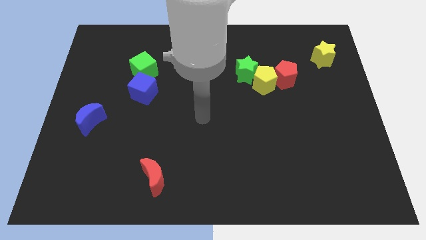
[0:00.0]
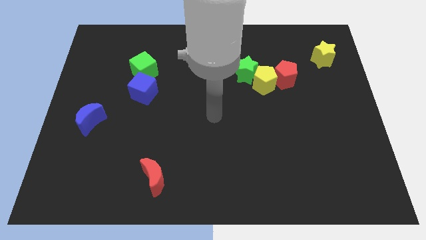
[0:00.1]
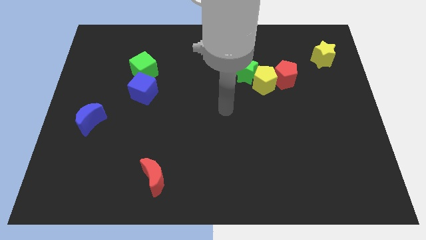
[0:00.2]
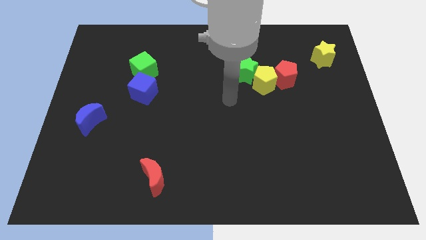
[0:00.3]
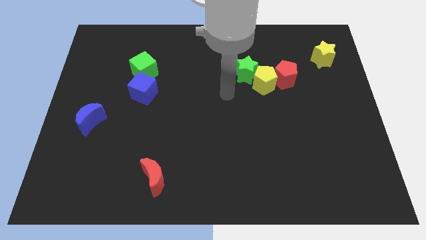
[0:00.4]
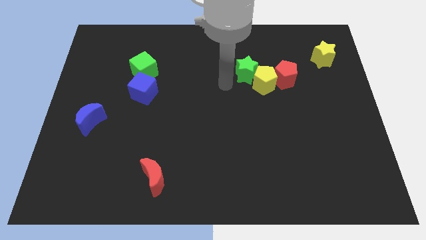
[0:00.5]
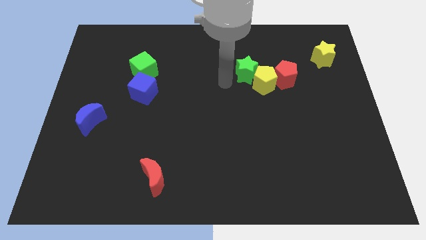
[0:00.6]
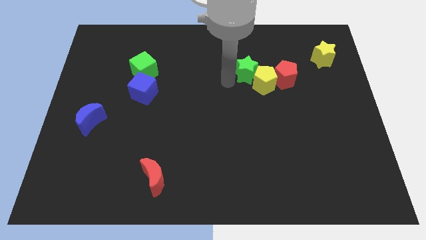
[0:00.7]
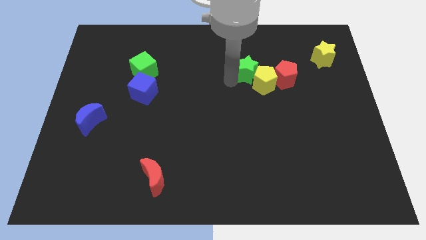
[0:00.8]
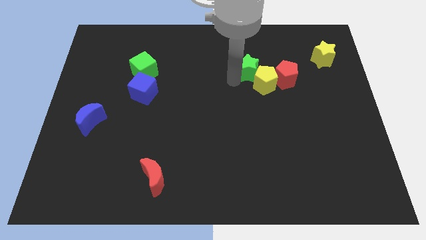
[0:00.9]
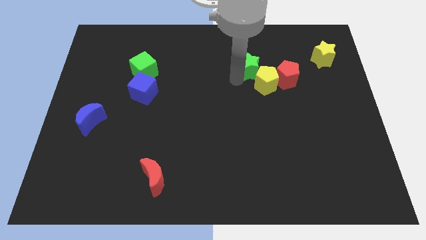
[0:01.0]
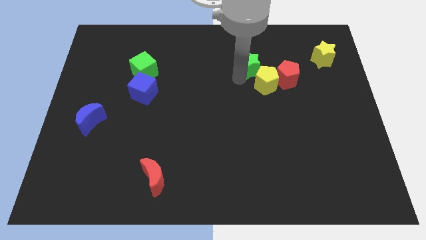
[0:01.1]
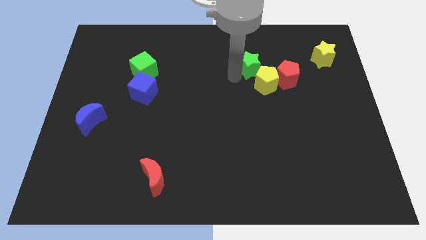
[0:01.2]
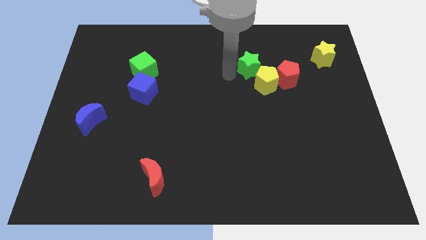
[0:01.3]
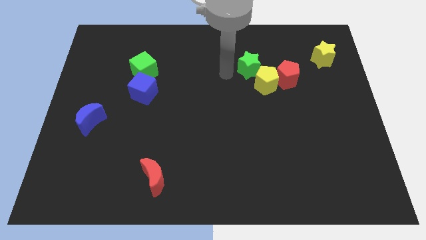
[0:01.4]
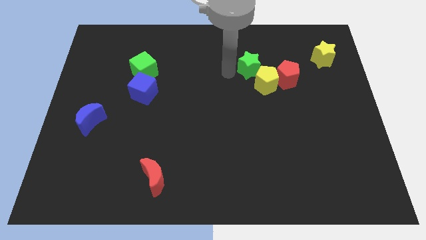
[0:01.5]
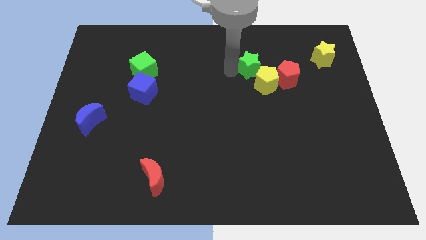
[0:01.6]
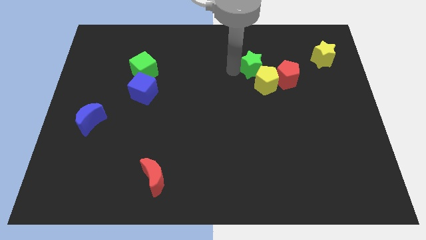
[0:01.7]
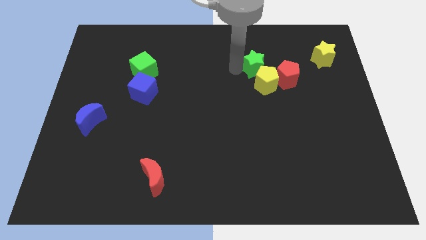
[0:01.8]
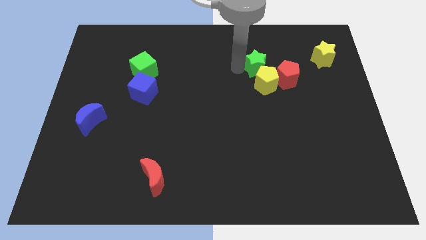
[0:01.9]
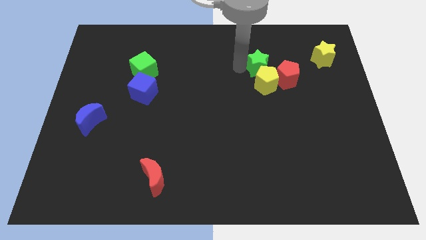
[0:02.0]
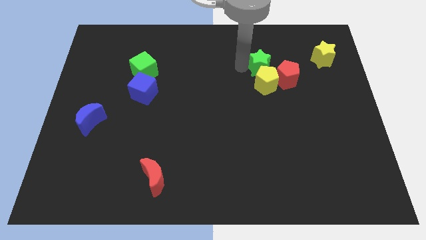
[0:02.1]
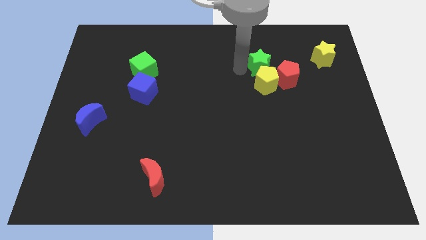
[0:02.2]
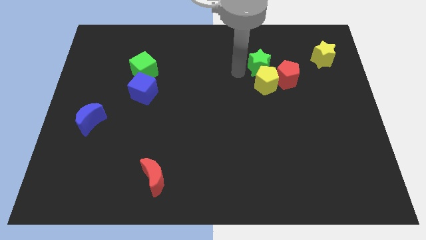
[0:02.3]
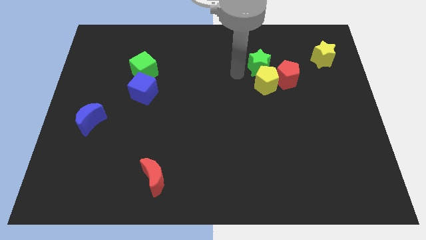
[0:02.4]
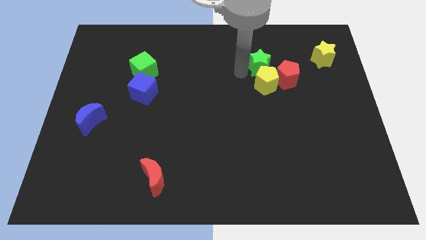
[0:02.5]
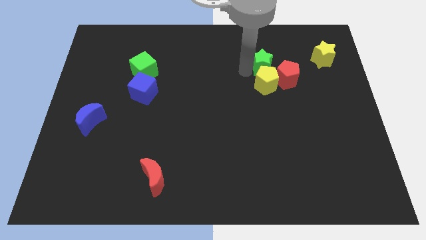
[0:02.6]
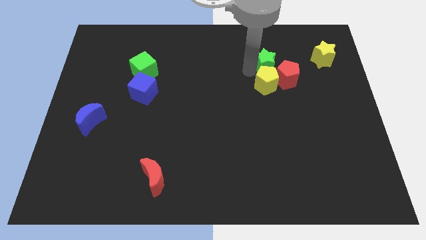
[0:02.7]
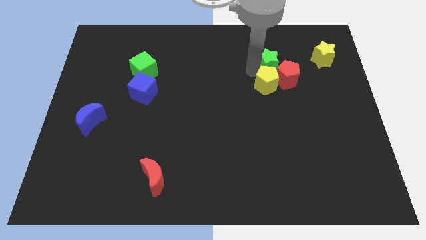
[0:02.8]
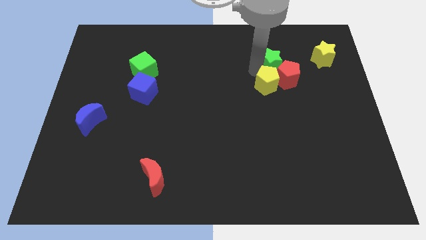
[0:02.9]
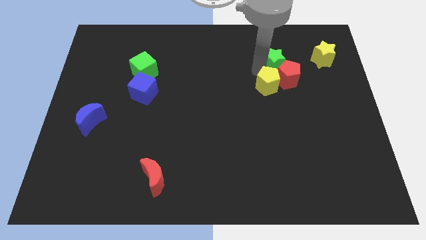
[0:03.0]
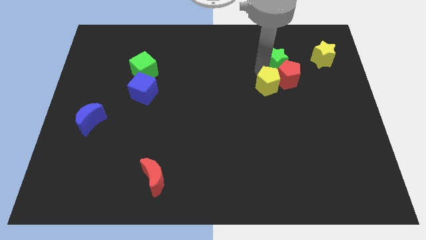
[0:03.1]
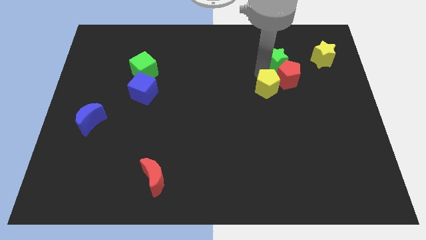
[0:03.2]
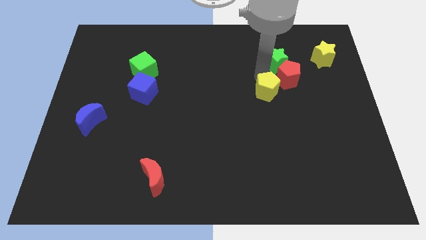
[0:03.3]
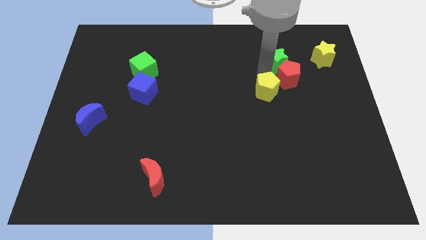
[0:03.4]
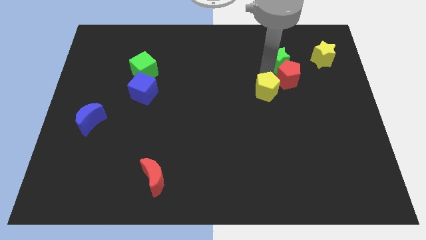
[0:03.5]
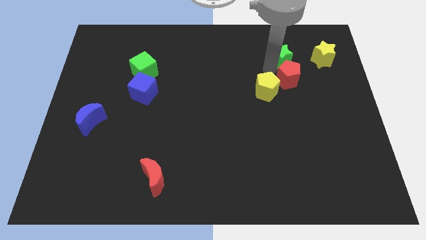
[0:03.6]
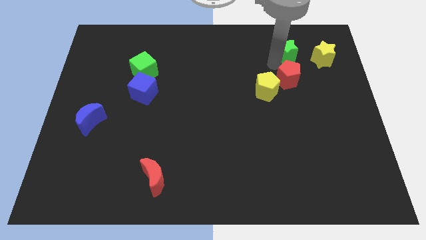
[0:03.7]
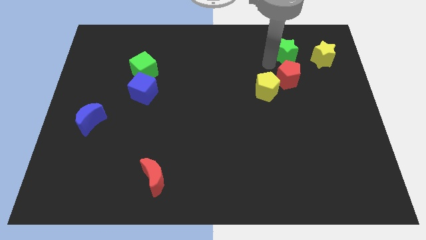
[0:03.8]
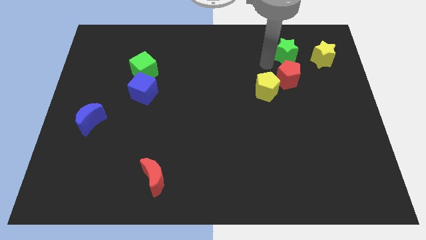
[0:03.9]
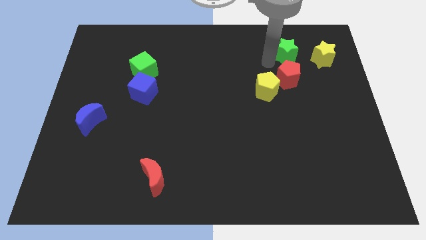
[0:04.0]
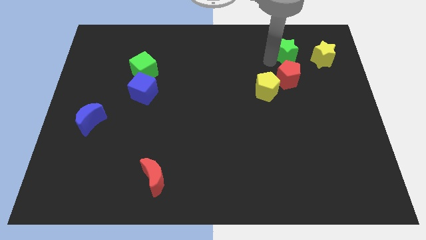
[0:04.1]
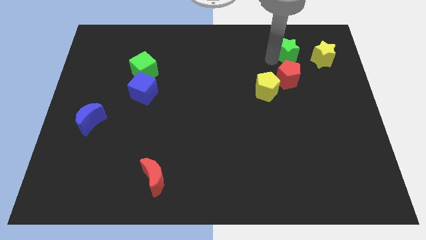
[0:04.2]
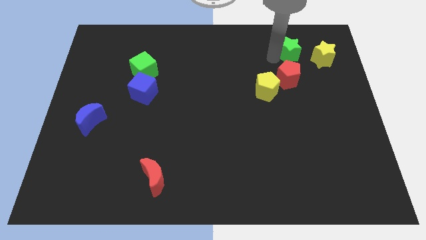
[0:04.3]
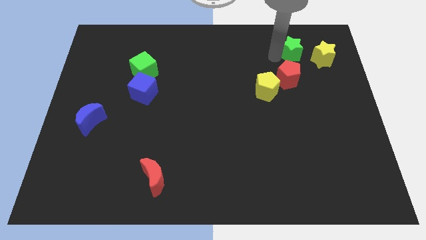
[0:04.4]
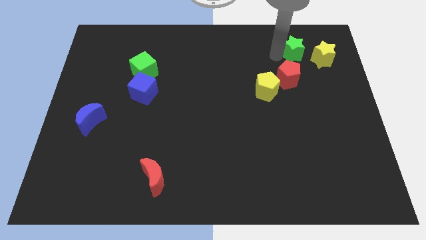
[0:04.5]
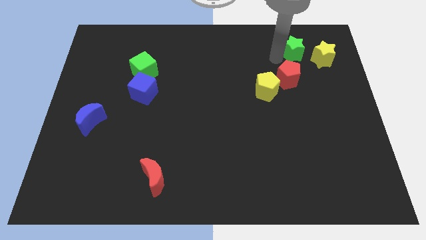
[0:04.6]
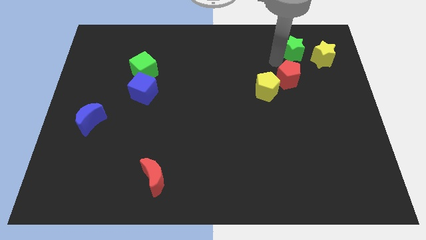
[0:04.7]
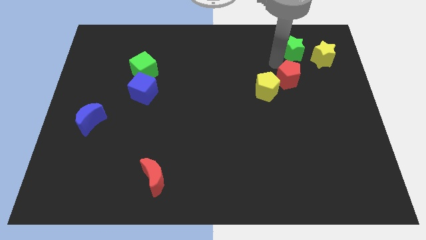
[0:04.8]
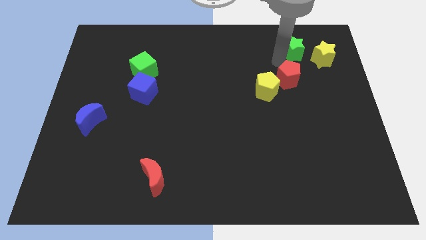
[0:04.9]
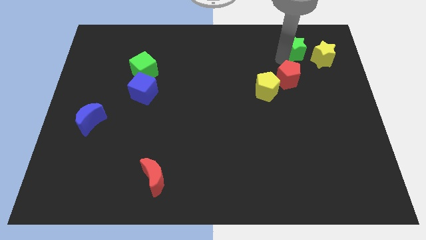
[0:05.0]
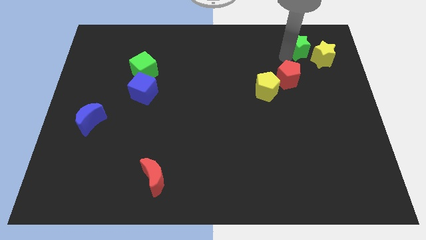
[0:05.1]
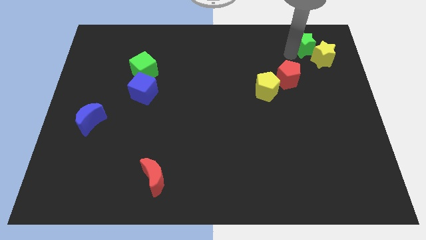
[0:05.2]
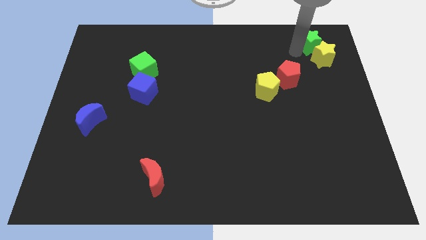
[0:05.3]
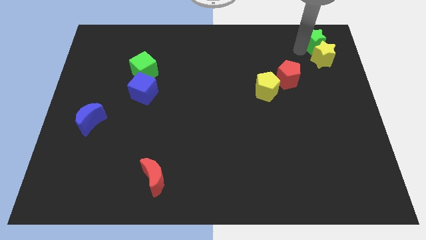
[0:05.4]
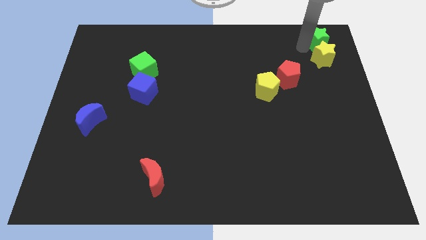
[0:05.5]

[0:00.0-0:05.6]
slide the green star to the top right of the board

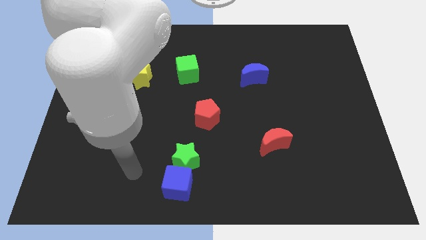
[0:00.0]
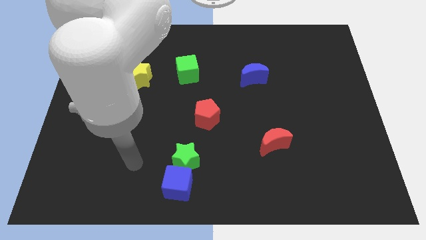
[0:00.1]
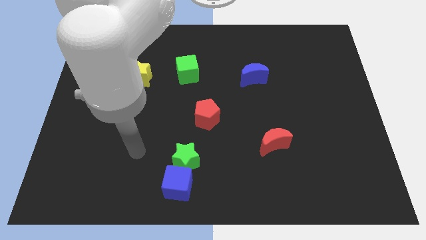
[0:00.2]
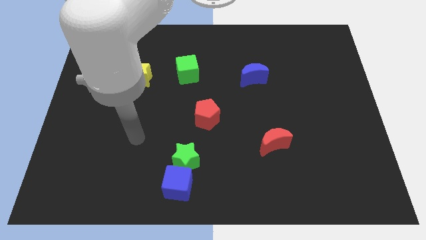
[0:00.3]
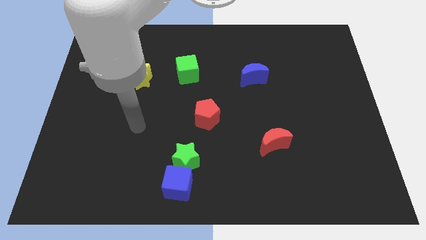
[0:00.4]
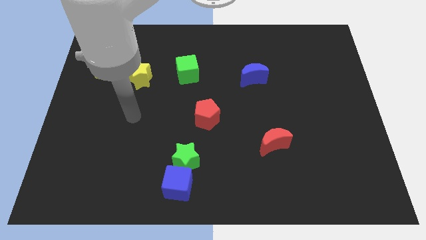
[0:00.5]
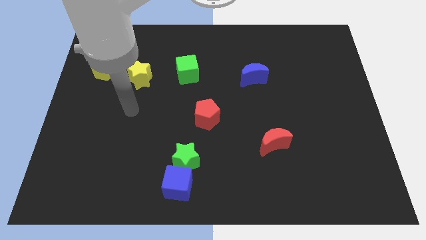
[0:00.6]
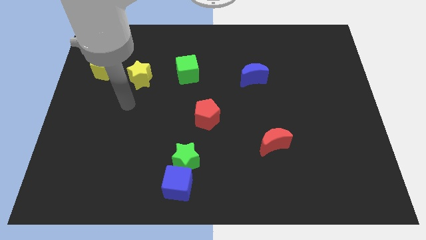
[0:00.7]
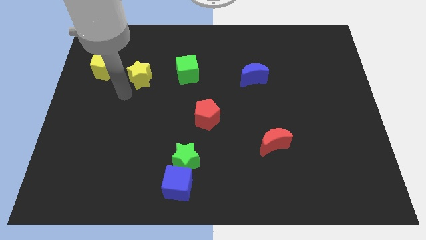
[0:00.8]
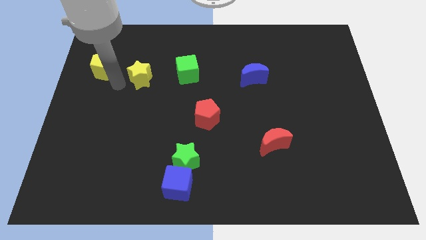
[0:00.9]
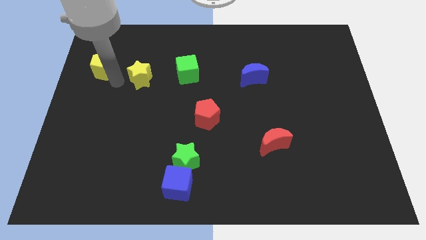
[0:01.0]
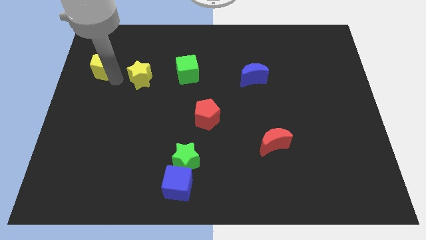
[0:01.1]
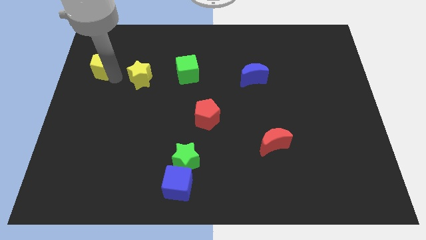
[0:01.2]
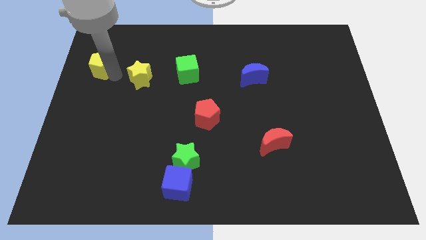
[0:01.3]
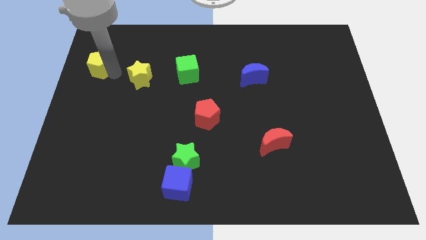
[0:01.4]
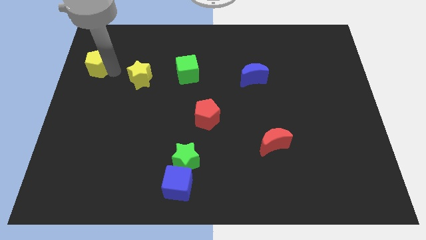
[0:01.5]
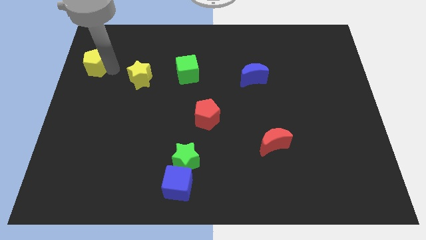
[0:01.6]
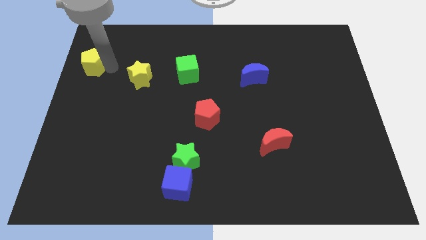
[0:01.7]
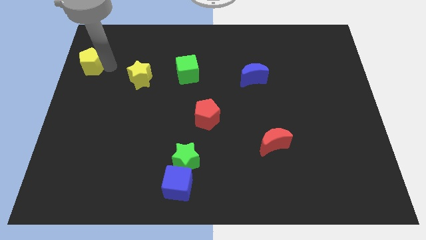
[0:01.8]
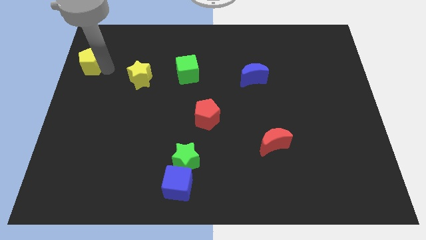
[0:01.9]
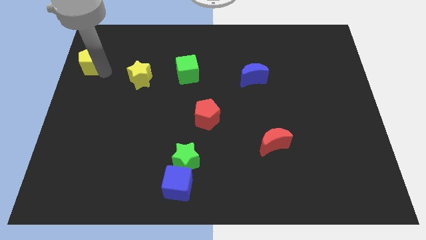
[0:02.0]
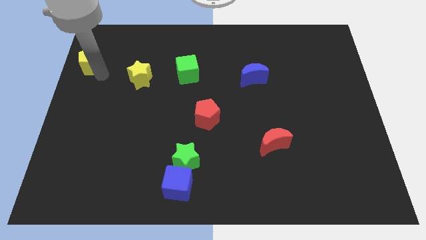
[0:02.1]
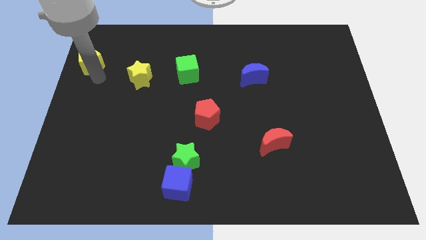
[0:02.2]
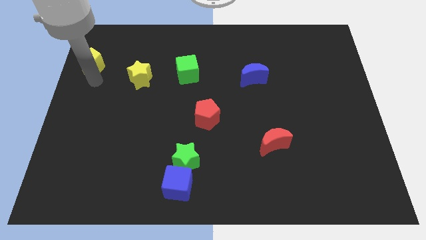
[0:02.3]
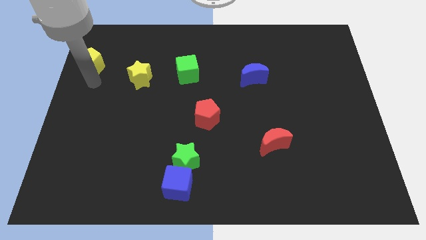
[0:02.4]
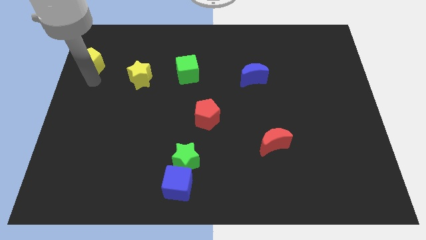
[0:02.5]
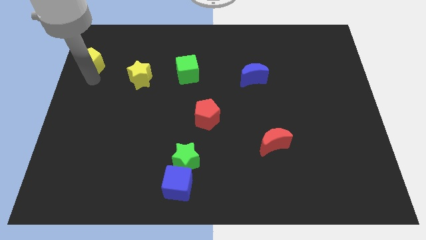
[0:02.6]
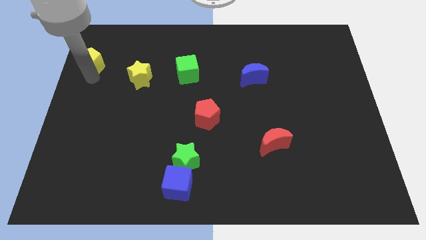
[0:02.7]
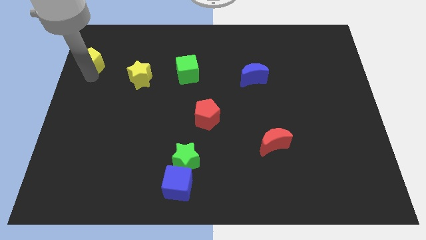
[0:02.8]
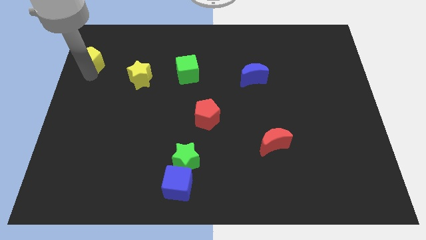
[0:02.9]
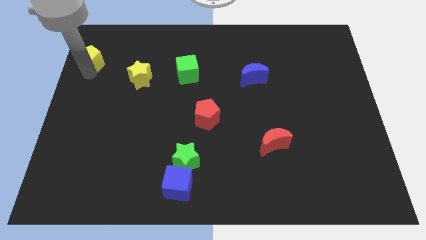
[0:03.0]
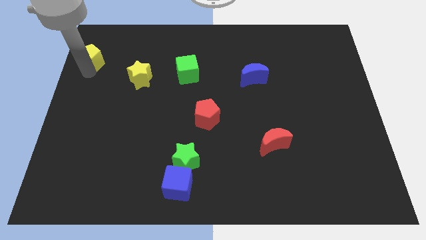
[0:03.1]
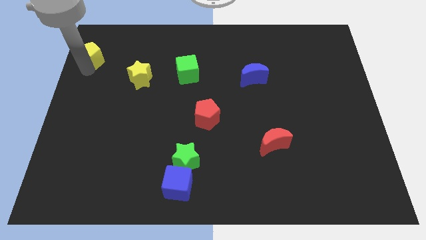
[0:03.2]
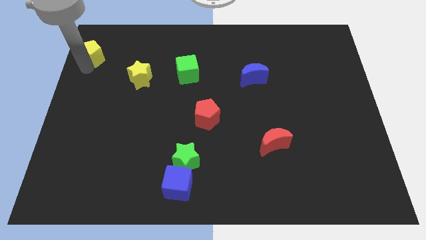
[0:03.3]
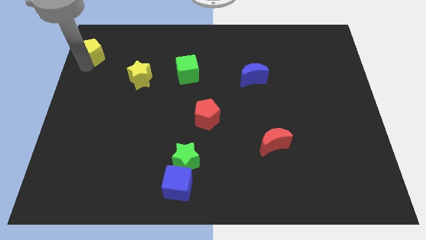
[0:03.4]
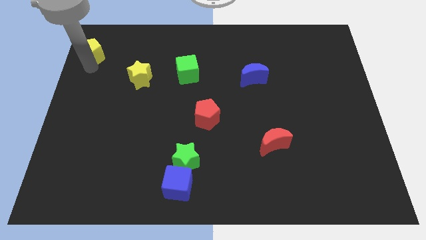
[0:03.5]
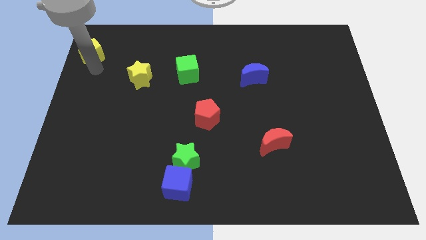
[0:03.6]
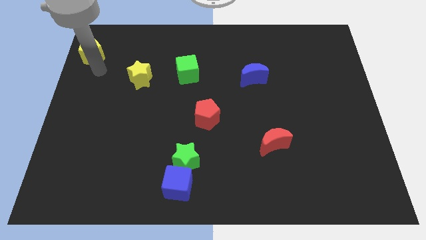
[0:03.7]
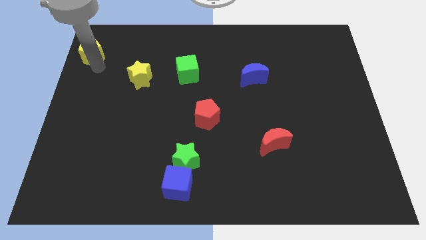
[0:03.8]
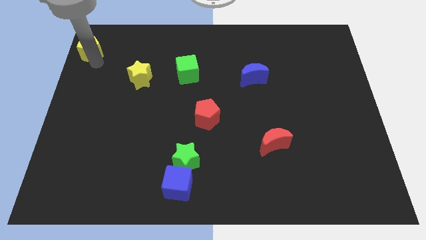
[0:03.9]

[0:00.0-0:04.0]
slide the yellow pentagon to the top left corner
